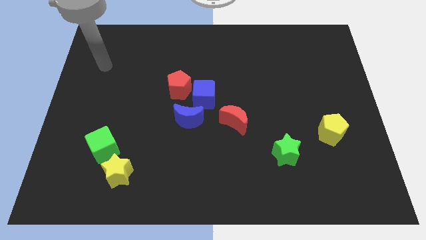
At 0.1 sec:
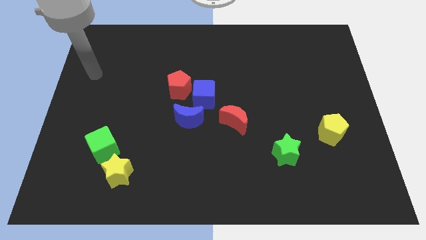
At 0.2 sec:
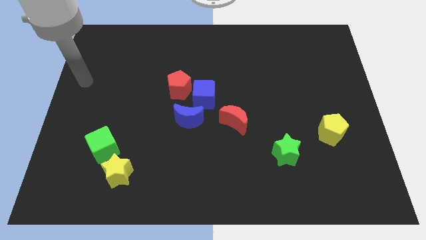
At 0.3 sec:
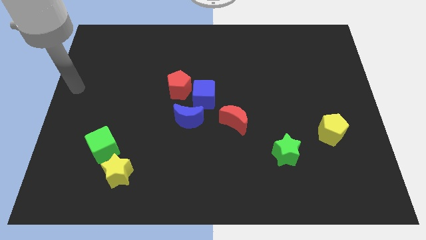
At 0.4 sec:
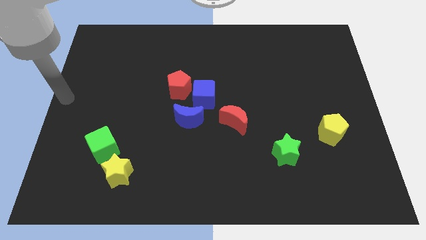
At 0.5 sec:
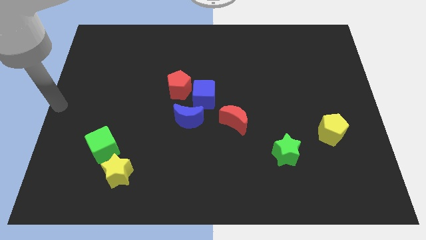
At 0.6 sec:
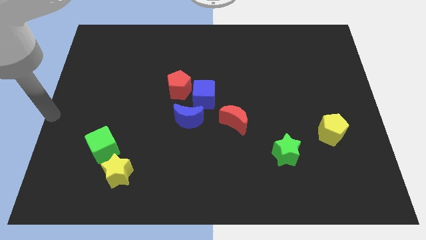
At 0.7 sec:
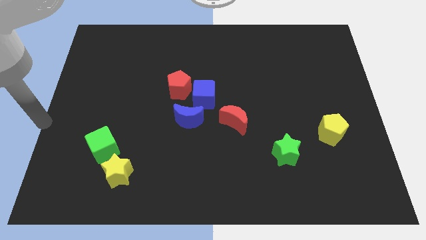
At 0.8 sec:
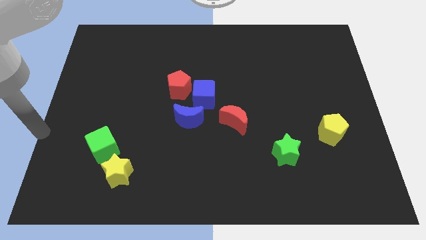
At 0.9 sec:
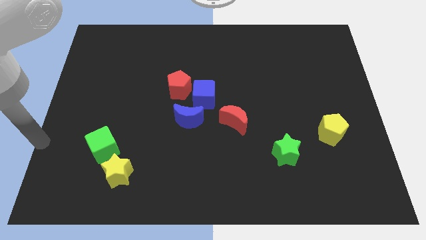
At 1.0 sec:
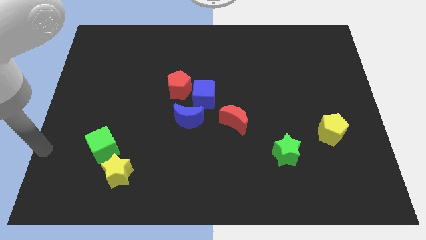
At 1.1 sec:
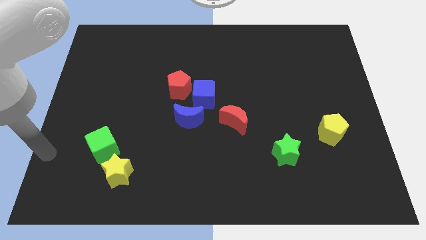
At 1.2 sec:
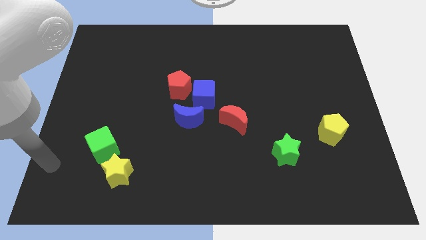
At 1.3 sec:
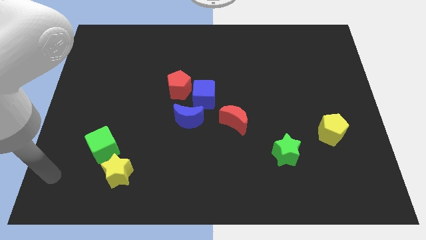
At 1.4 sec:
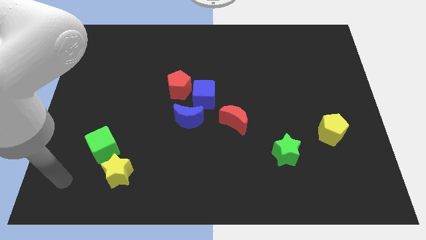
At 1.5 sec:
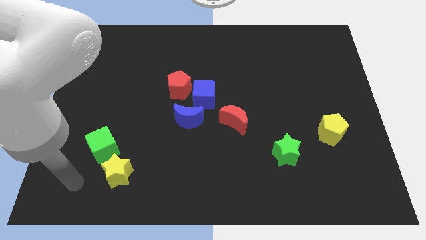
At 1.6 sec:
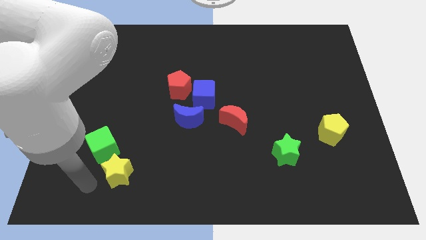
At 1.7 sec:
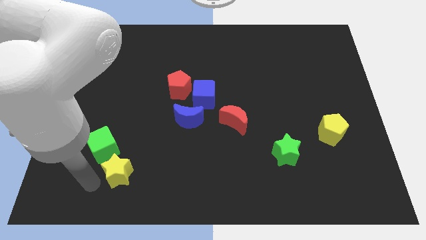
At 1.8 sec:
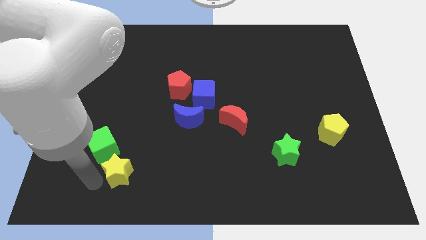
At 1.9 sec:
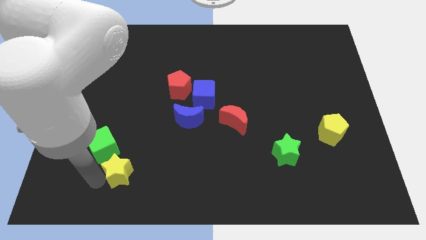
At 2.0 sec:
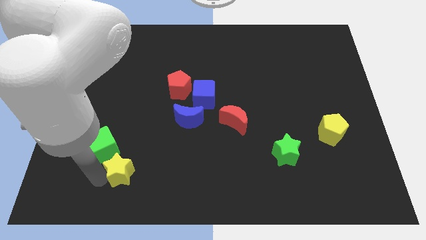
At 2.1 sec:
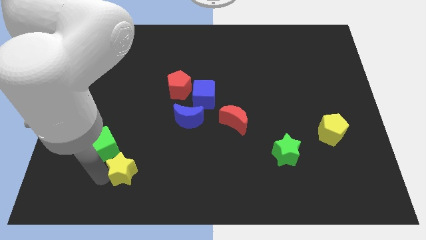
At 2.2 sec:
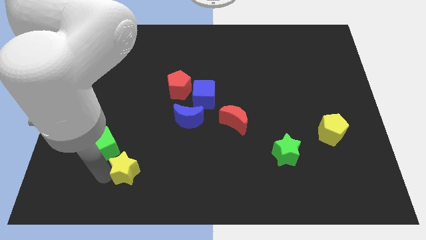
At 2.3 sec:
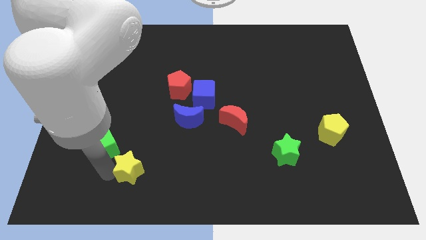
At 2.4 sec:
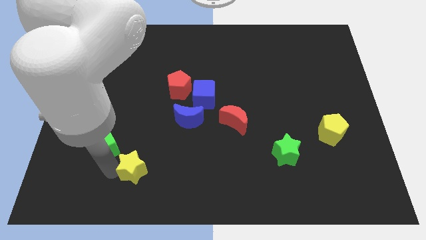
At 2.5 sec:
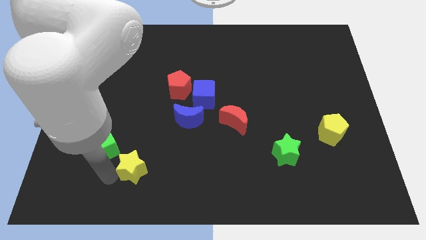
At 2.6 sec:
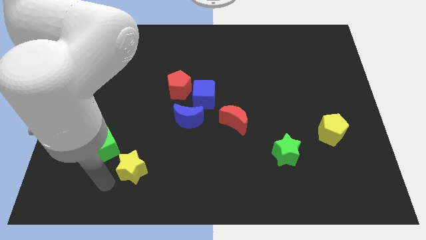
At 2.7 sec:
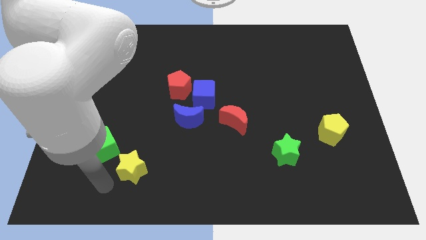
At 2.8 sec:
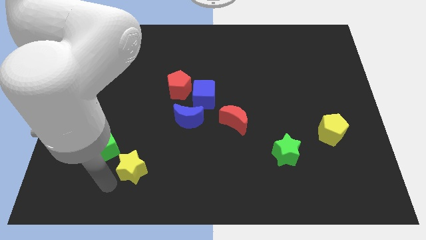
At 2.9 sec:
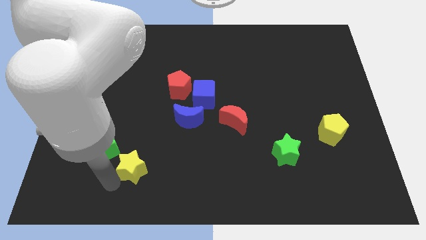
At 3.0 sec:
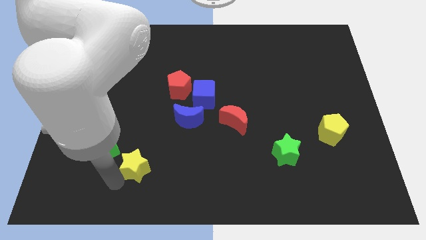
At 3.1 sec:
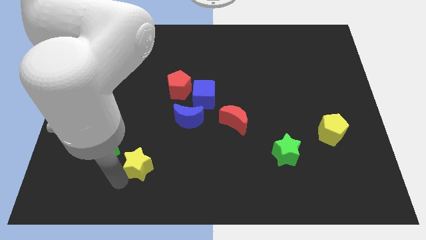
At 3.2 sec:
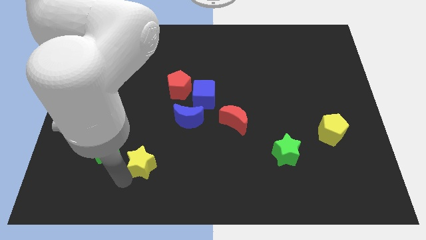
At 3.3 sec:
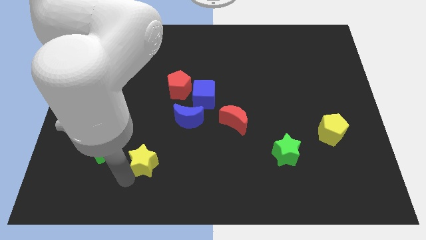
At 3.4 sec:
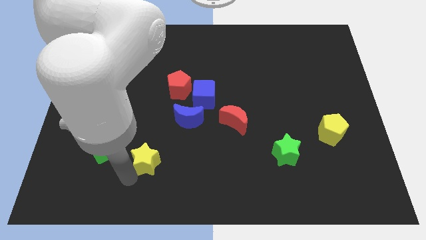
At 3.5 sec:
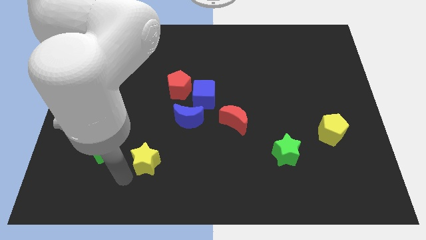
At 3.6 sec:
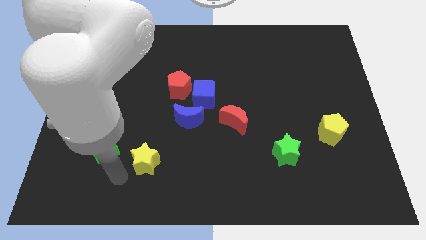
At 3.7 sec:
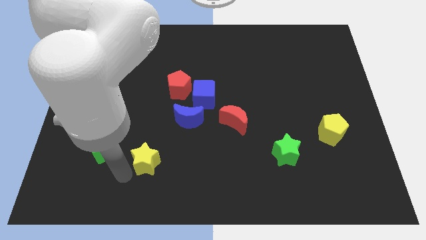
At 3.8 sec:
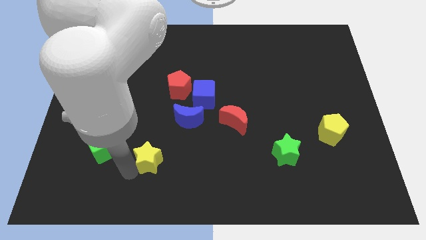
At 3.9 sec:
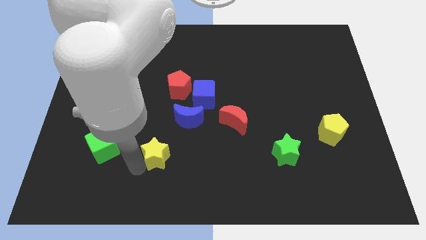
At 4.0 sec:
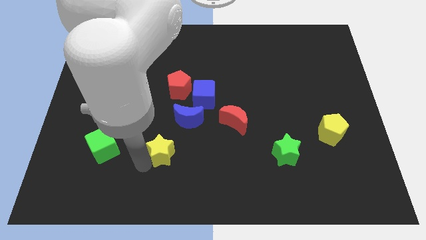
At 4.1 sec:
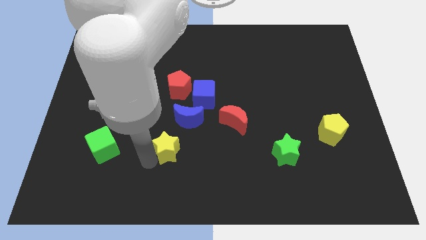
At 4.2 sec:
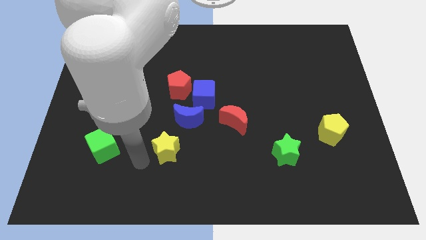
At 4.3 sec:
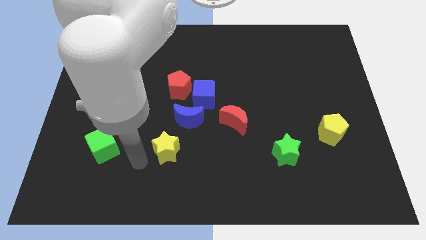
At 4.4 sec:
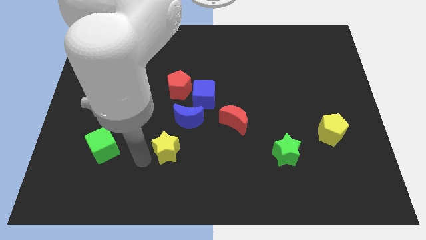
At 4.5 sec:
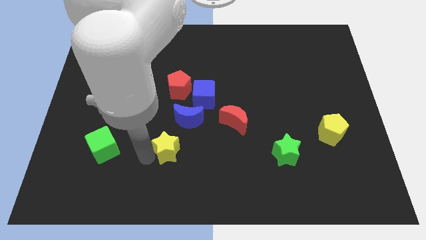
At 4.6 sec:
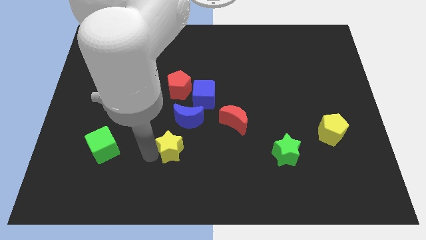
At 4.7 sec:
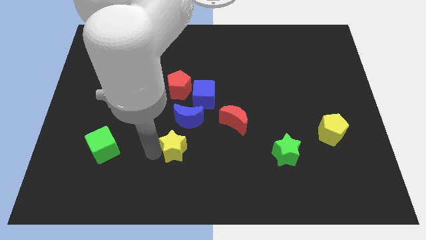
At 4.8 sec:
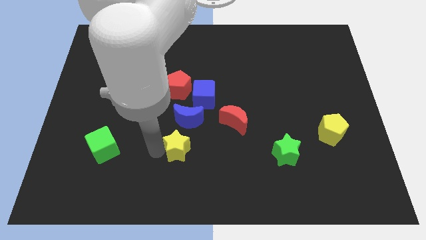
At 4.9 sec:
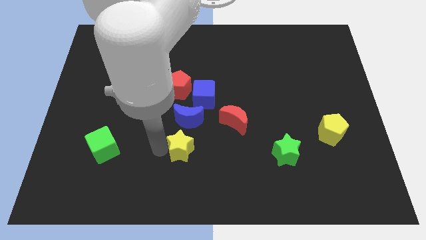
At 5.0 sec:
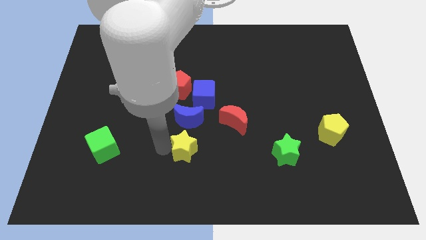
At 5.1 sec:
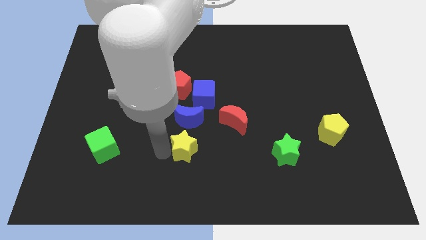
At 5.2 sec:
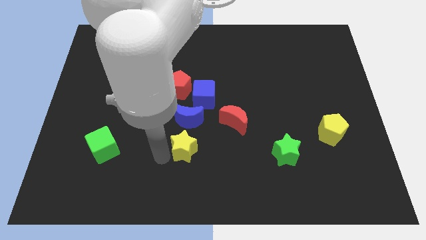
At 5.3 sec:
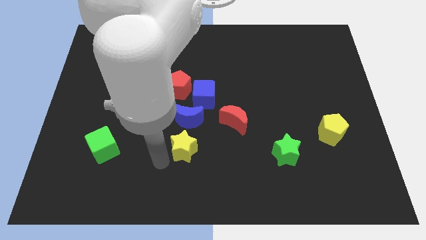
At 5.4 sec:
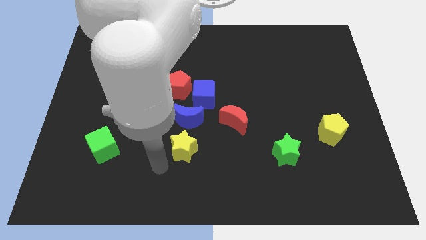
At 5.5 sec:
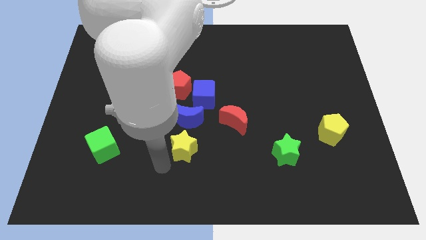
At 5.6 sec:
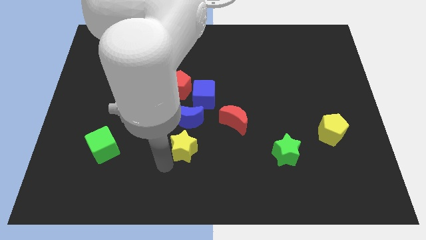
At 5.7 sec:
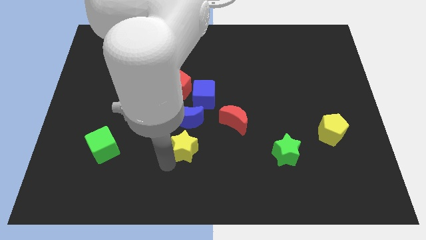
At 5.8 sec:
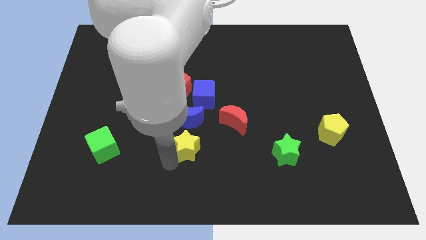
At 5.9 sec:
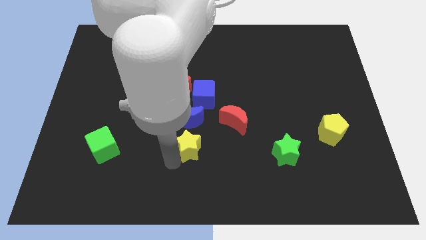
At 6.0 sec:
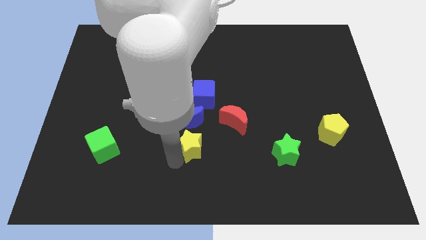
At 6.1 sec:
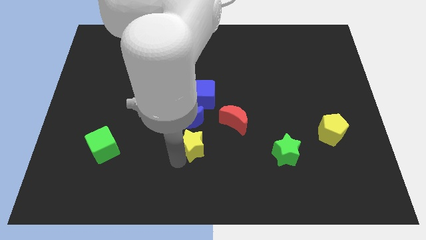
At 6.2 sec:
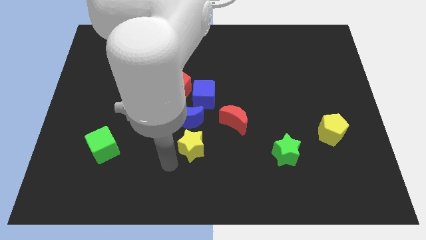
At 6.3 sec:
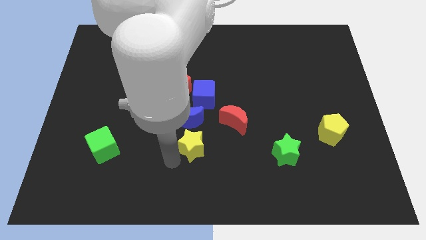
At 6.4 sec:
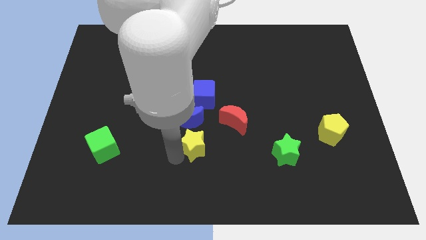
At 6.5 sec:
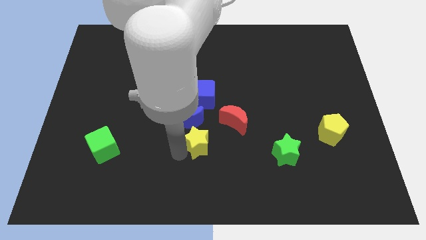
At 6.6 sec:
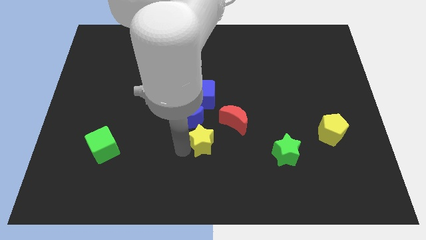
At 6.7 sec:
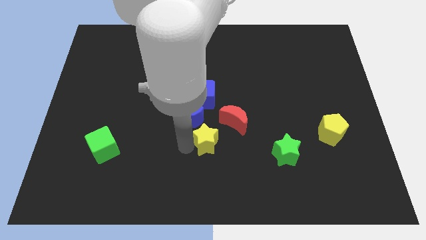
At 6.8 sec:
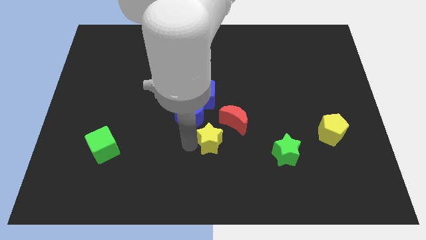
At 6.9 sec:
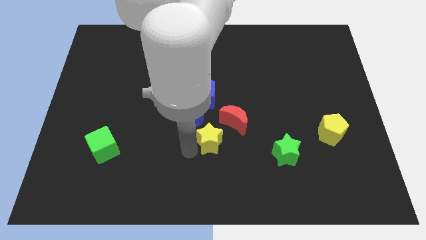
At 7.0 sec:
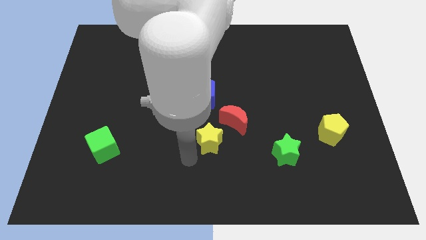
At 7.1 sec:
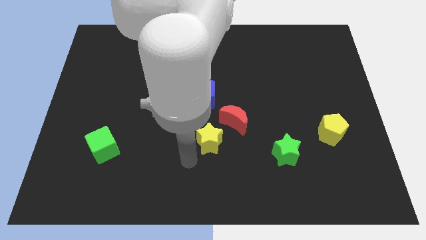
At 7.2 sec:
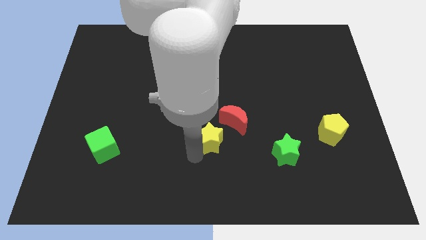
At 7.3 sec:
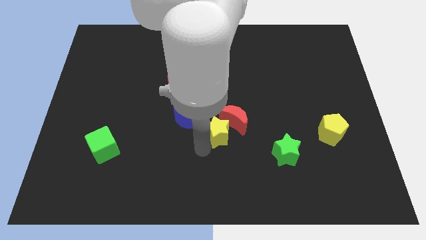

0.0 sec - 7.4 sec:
push the yellow star next to the red moon
